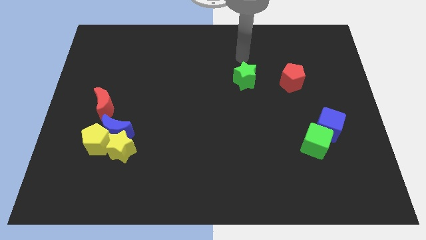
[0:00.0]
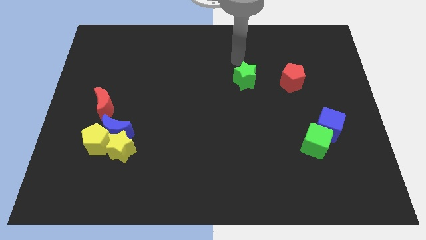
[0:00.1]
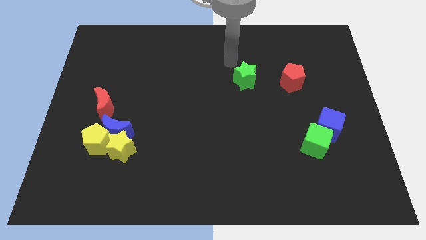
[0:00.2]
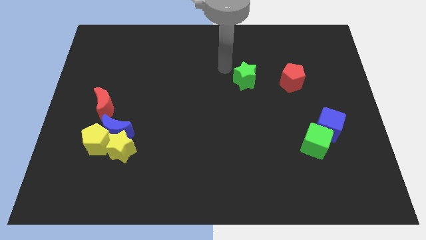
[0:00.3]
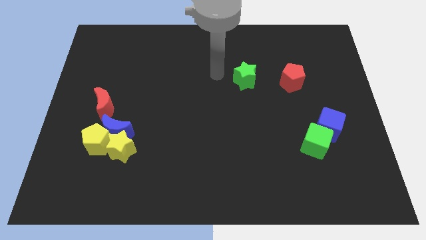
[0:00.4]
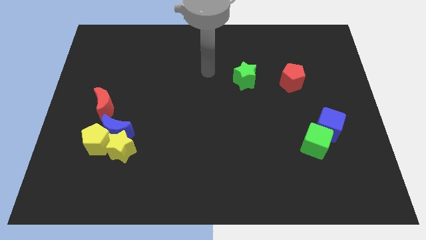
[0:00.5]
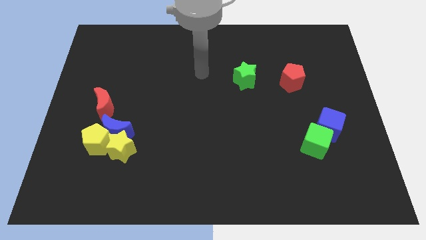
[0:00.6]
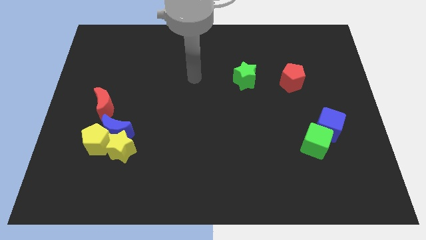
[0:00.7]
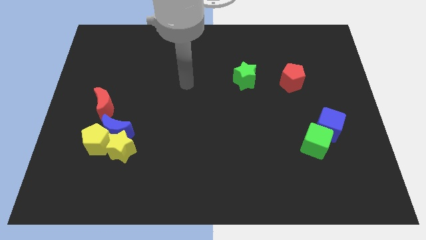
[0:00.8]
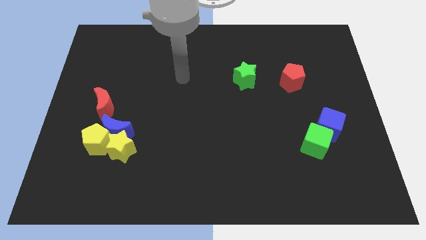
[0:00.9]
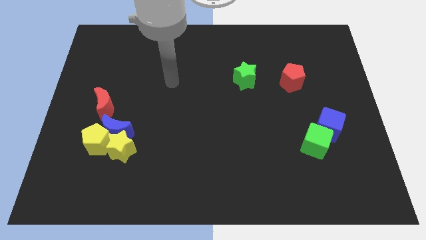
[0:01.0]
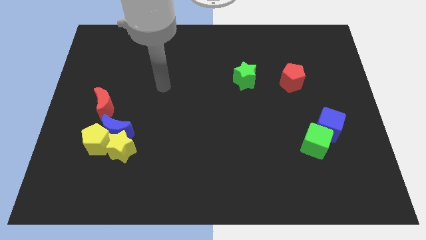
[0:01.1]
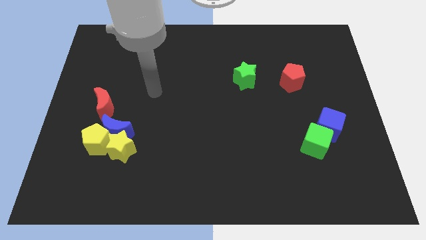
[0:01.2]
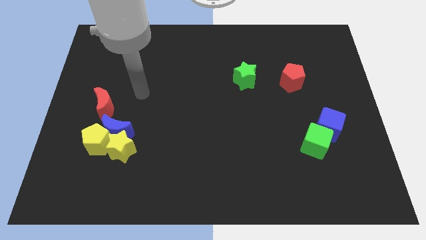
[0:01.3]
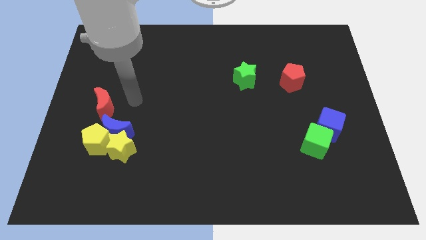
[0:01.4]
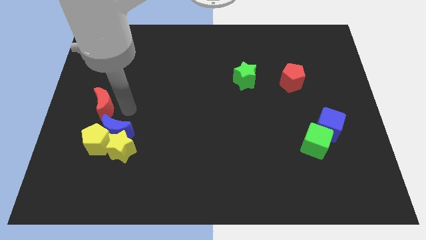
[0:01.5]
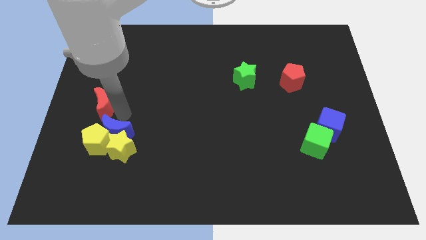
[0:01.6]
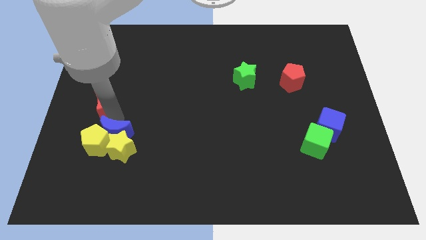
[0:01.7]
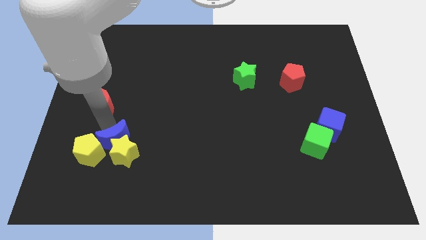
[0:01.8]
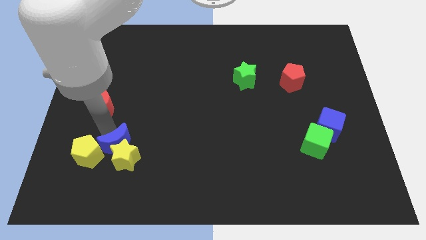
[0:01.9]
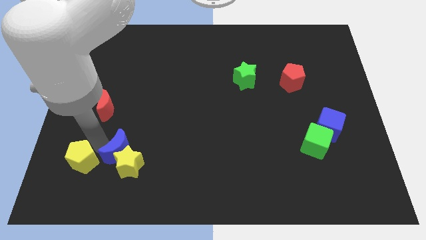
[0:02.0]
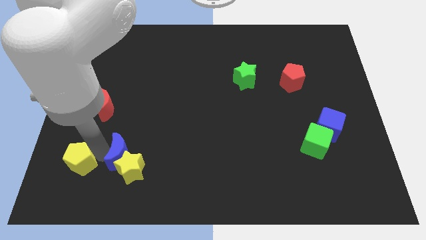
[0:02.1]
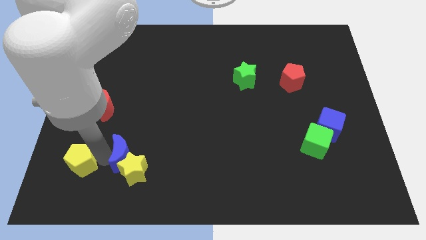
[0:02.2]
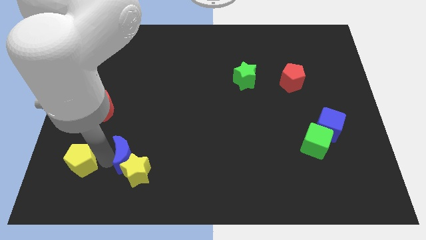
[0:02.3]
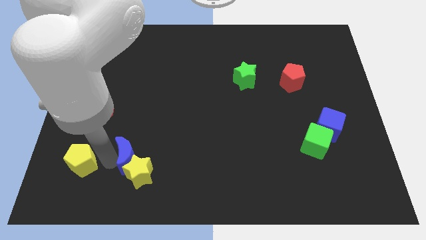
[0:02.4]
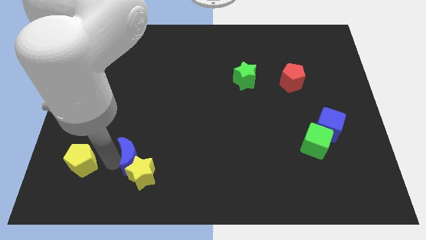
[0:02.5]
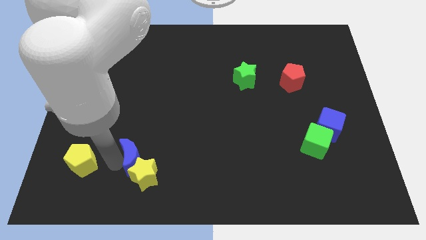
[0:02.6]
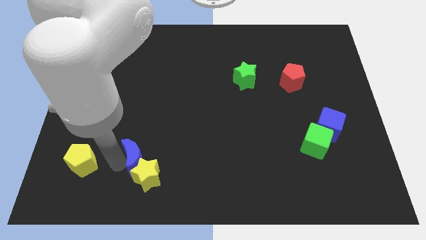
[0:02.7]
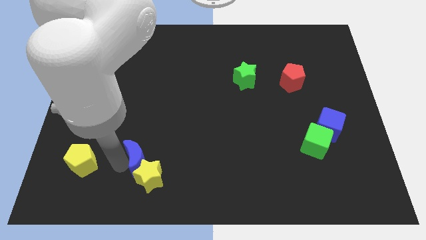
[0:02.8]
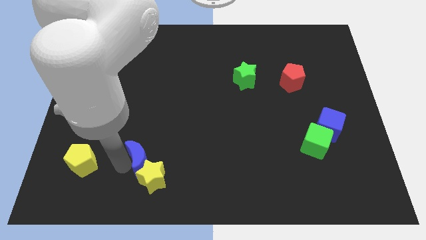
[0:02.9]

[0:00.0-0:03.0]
pull the yellow star apart from the blue moon and yellow pentagon

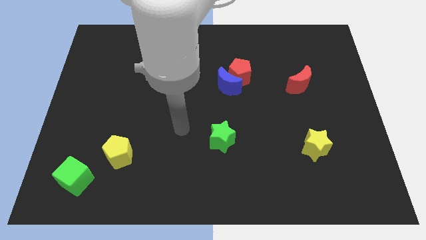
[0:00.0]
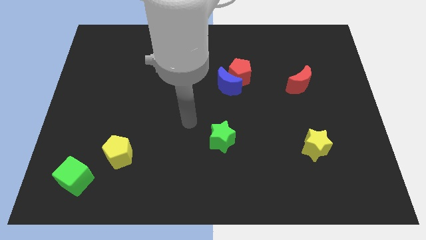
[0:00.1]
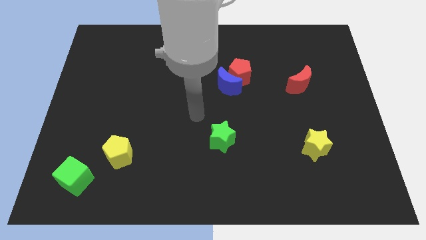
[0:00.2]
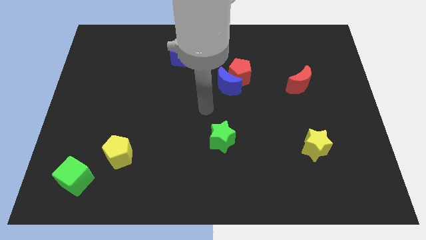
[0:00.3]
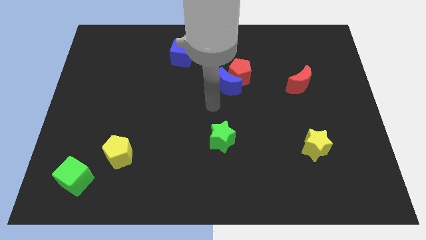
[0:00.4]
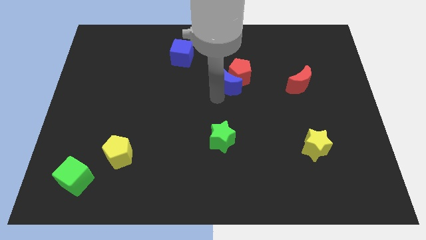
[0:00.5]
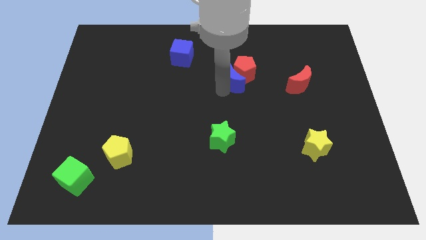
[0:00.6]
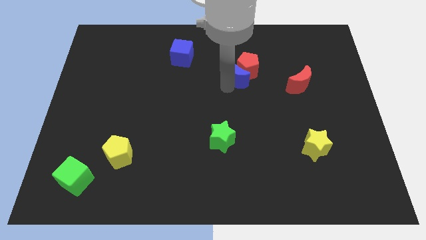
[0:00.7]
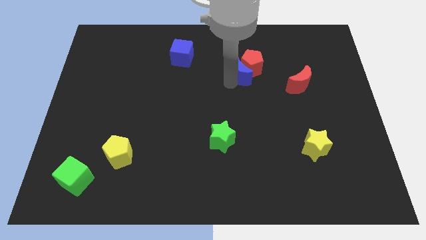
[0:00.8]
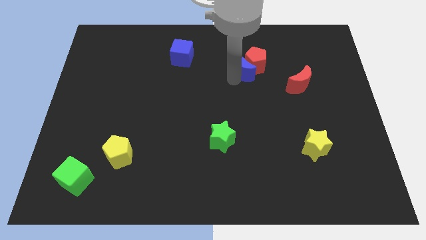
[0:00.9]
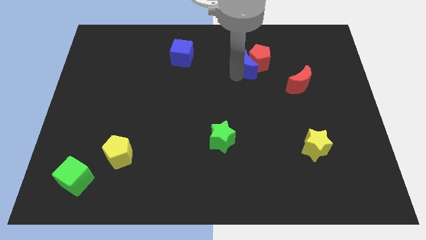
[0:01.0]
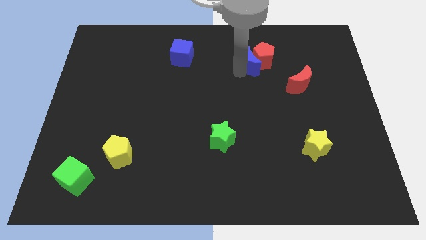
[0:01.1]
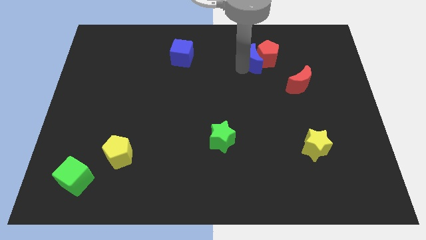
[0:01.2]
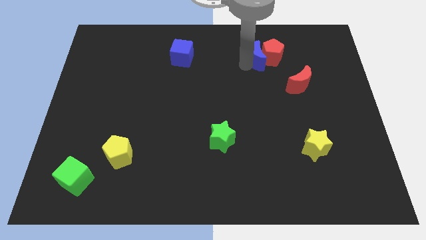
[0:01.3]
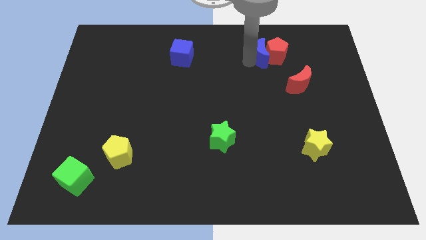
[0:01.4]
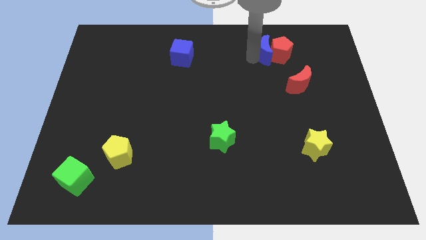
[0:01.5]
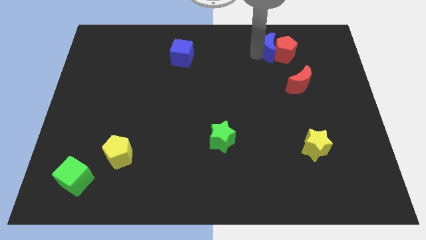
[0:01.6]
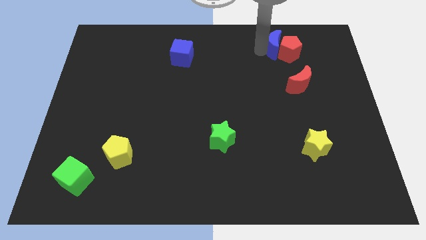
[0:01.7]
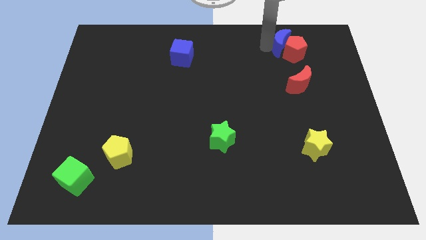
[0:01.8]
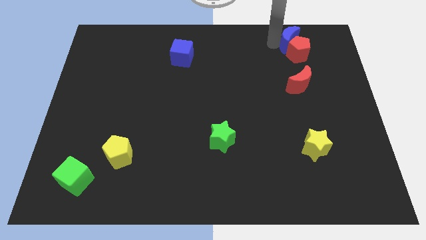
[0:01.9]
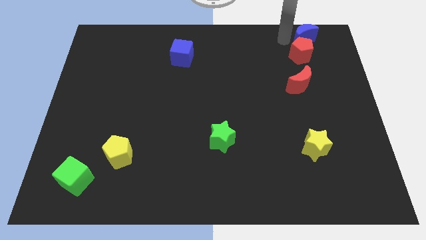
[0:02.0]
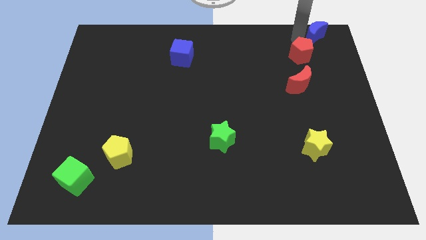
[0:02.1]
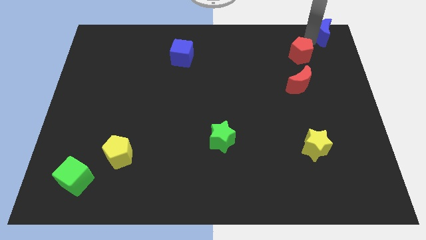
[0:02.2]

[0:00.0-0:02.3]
pull the red pentagon apart from the blue moon

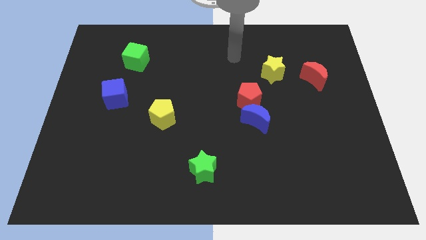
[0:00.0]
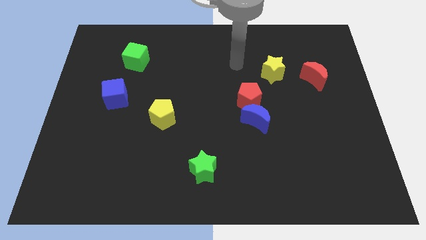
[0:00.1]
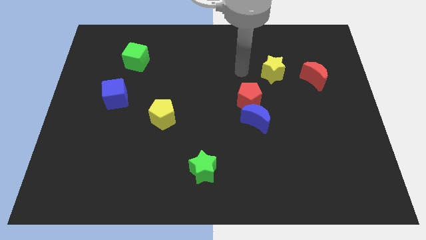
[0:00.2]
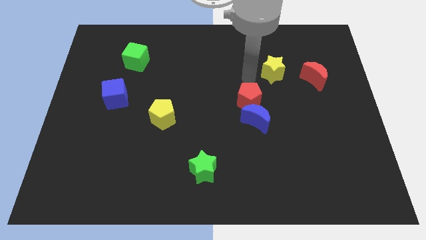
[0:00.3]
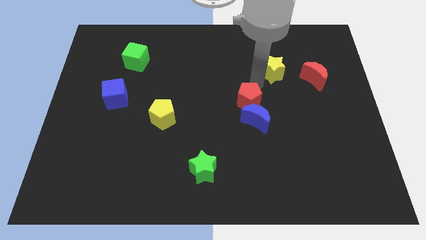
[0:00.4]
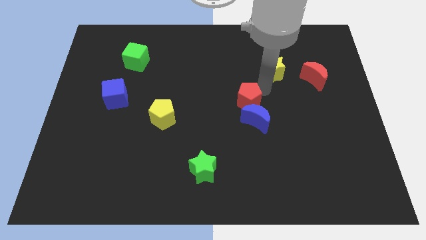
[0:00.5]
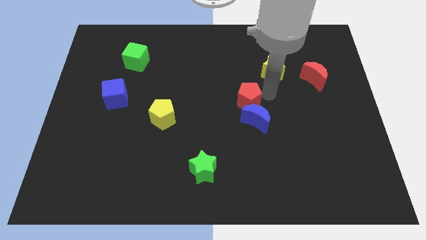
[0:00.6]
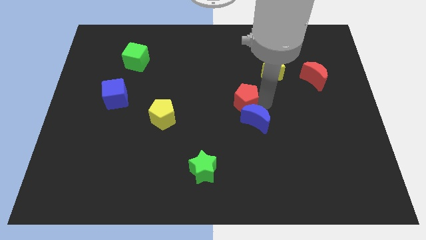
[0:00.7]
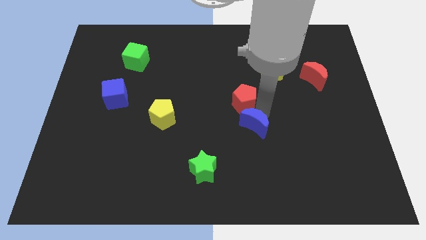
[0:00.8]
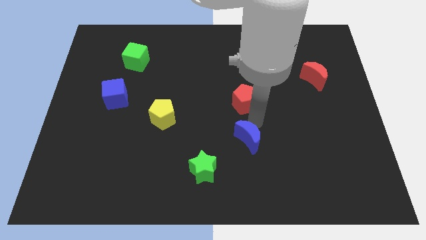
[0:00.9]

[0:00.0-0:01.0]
move the red pentagon away from the blue moon

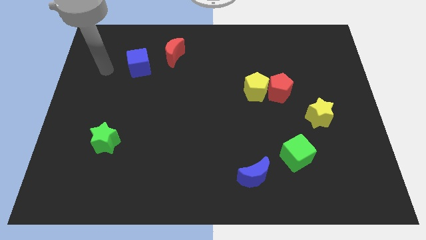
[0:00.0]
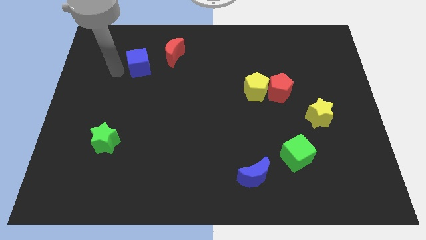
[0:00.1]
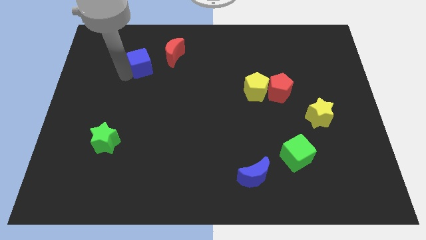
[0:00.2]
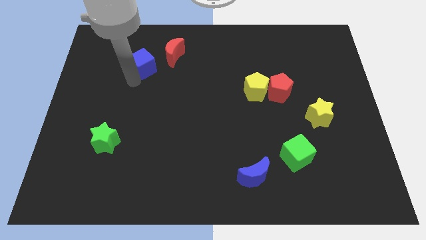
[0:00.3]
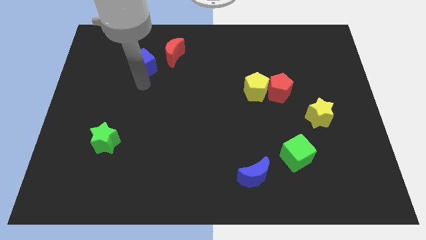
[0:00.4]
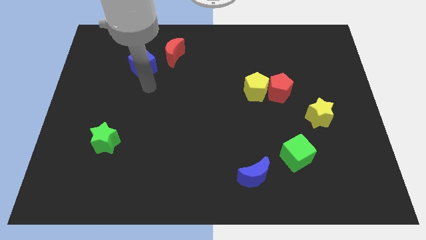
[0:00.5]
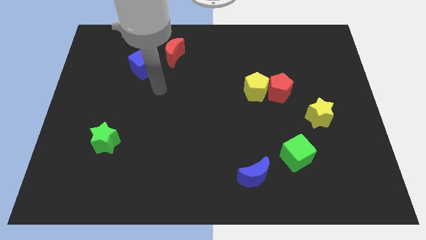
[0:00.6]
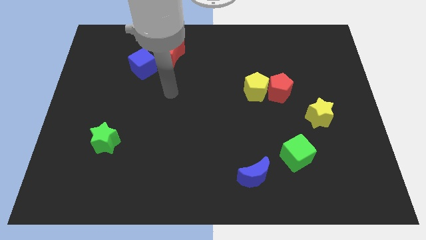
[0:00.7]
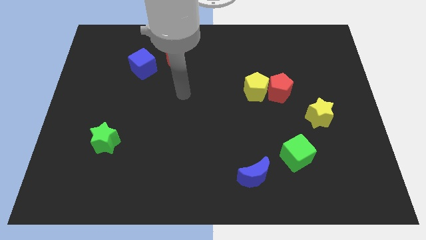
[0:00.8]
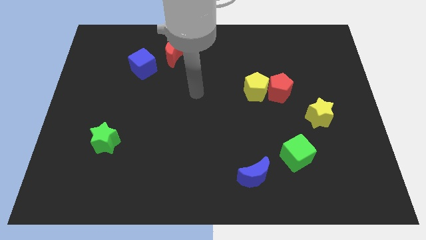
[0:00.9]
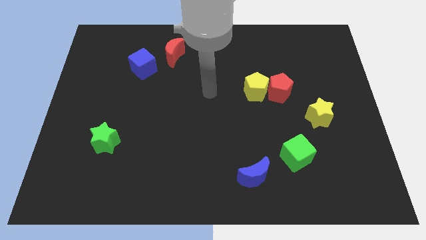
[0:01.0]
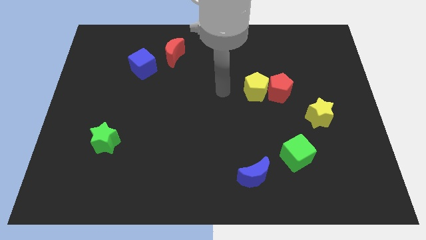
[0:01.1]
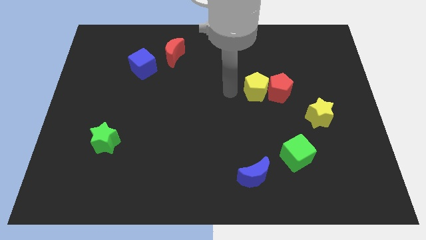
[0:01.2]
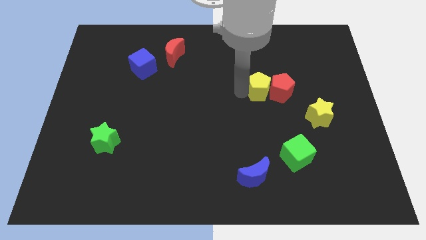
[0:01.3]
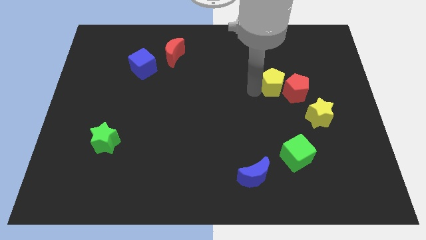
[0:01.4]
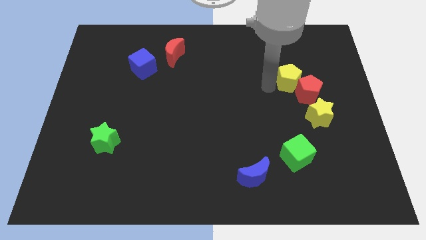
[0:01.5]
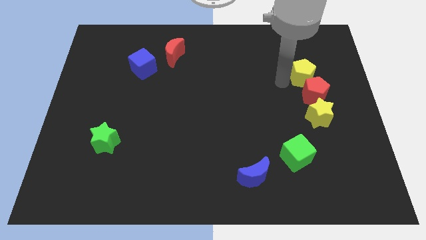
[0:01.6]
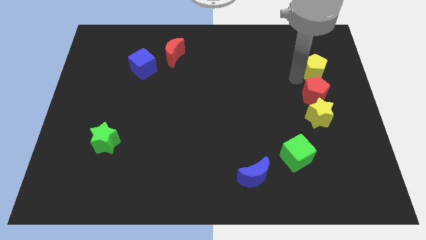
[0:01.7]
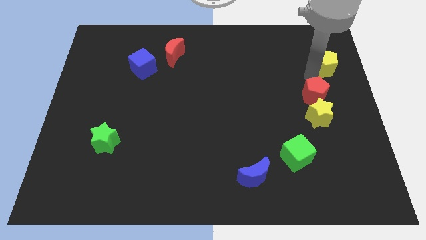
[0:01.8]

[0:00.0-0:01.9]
separate the red pentagon from the yellow pentagon

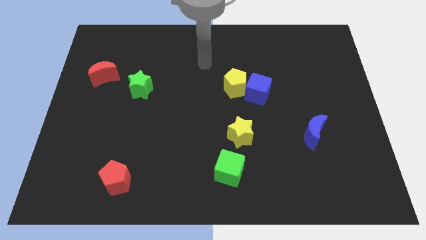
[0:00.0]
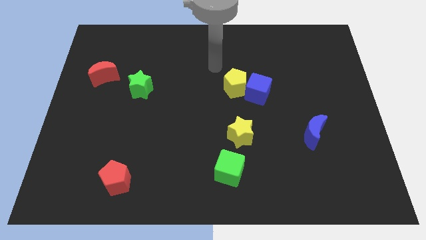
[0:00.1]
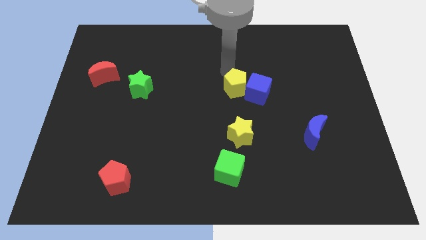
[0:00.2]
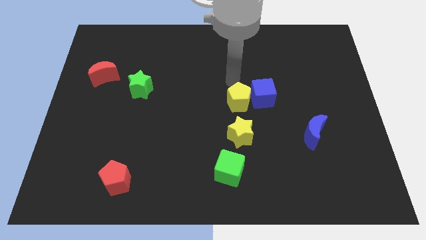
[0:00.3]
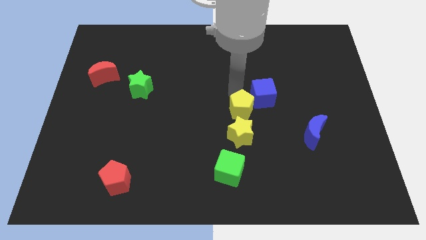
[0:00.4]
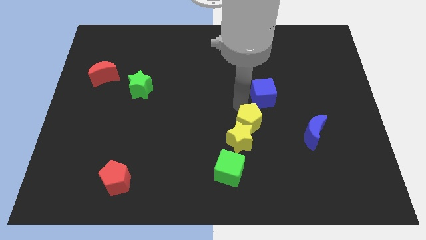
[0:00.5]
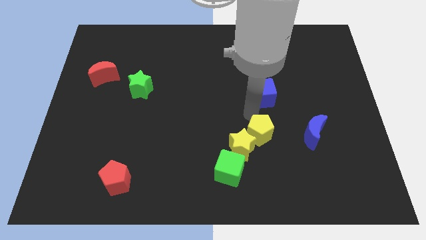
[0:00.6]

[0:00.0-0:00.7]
separate the blue cube from the yellow pentagon

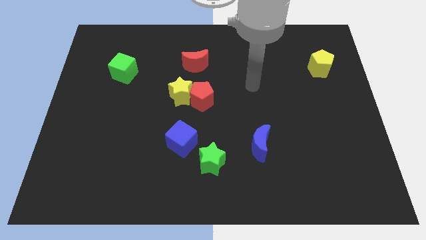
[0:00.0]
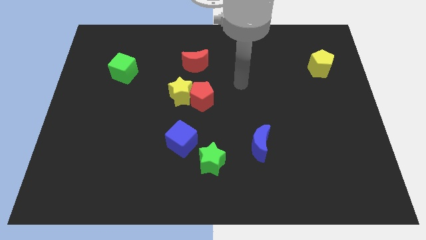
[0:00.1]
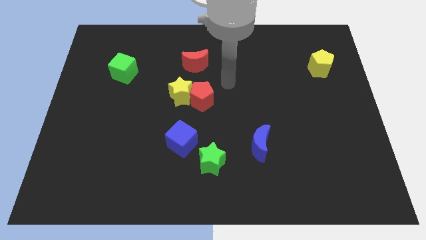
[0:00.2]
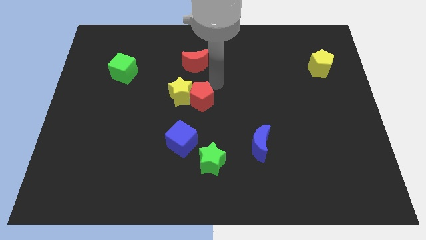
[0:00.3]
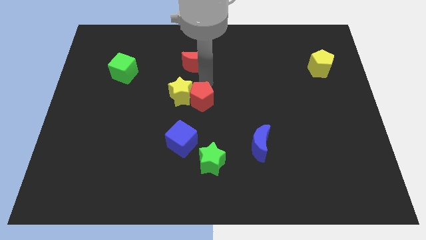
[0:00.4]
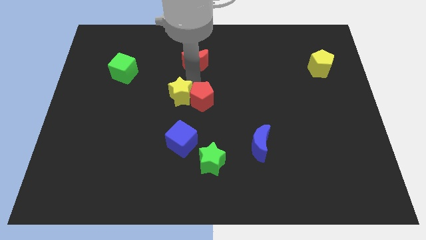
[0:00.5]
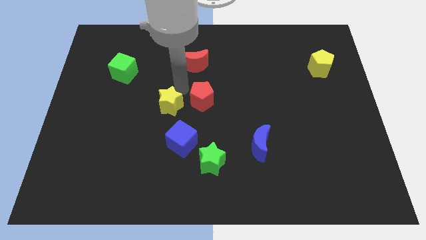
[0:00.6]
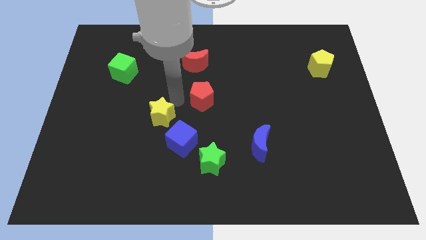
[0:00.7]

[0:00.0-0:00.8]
pull the red pentagon apart from the yellow star
